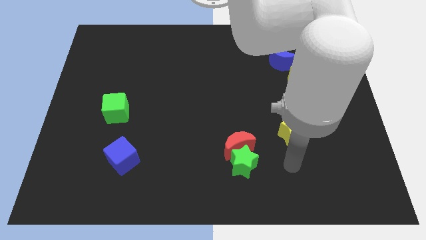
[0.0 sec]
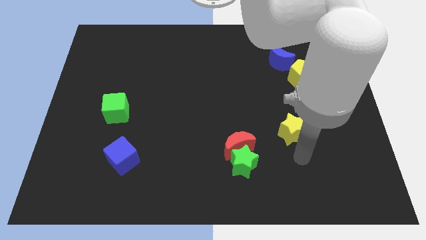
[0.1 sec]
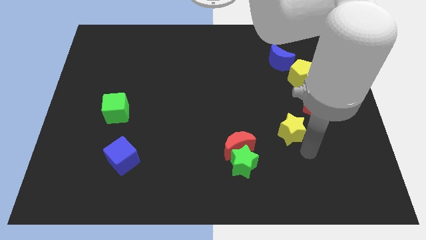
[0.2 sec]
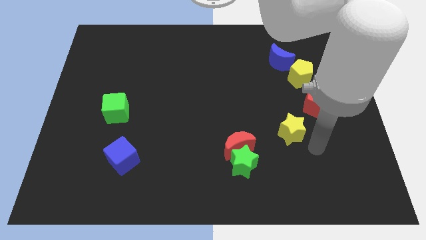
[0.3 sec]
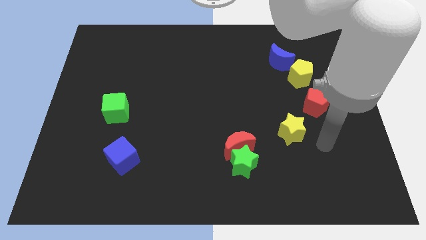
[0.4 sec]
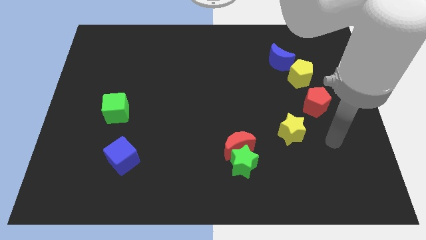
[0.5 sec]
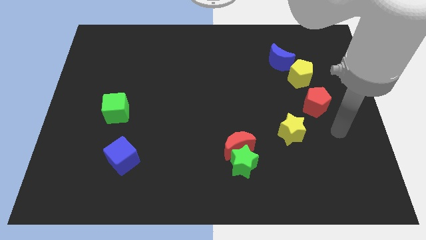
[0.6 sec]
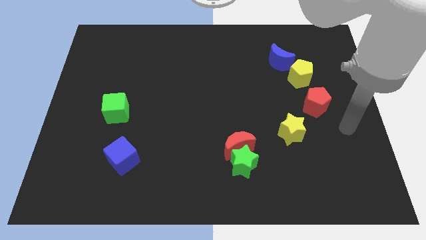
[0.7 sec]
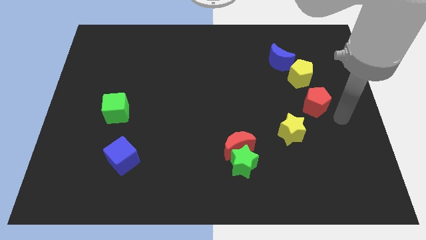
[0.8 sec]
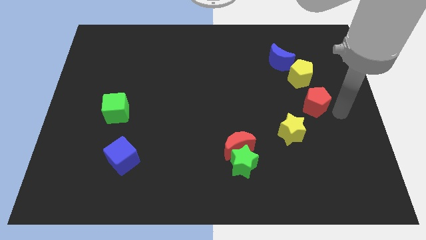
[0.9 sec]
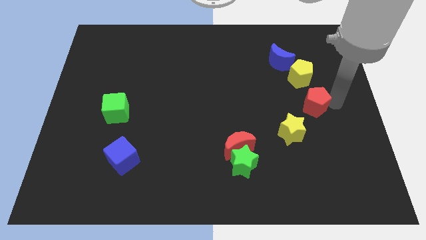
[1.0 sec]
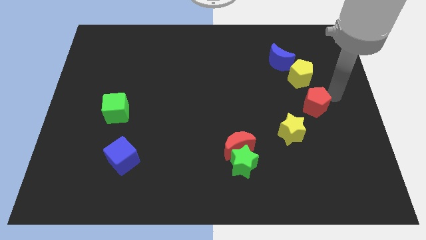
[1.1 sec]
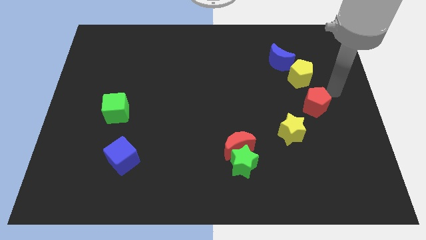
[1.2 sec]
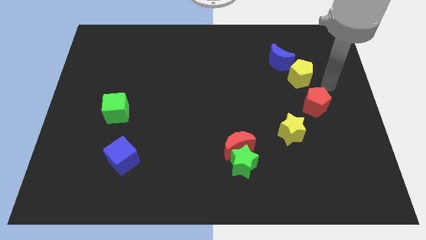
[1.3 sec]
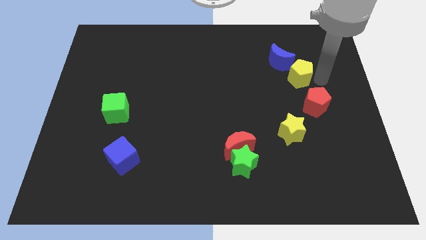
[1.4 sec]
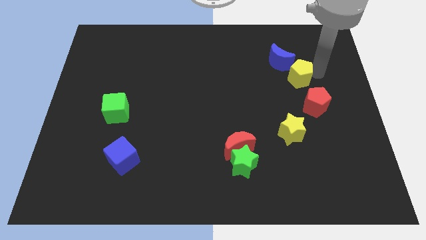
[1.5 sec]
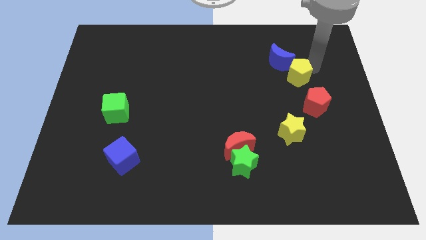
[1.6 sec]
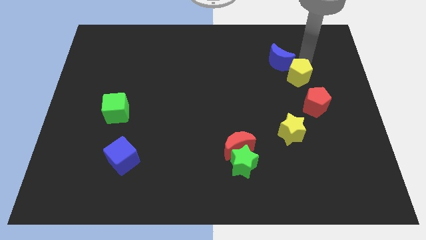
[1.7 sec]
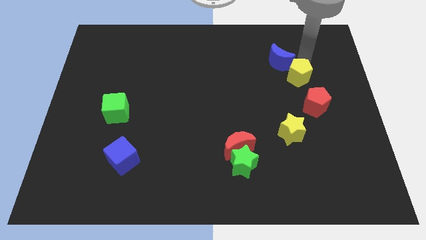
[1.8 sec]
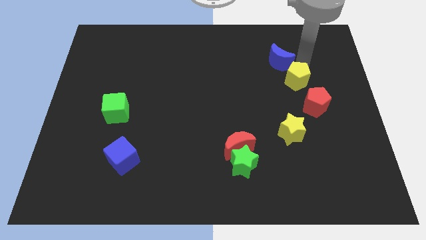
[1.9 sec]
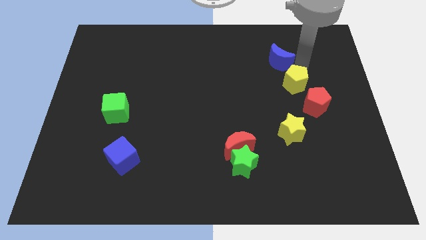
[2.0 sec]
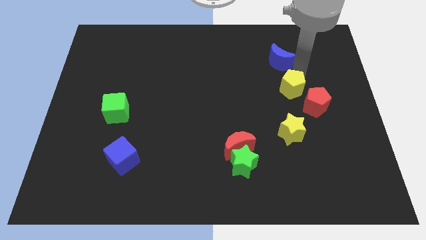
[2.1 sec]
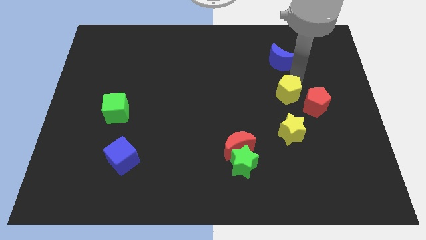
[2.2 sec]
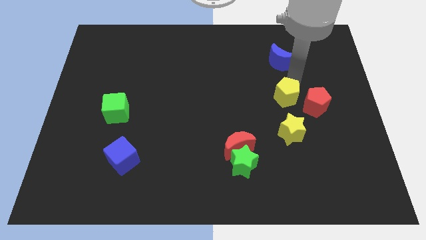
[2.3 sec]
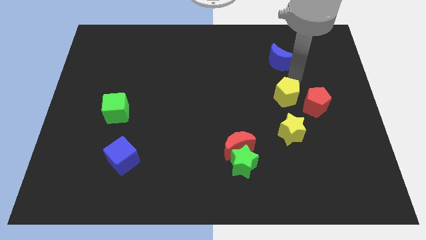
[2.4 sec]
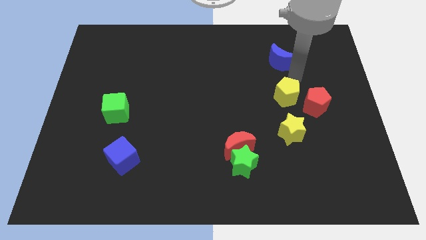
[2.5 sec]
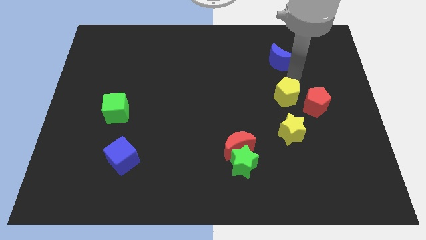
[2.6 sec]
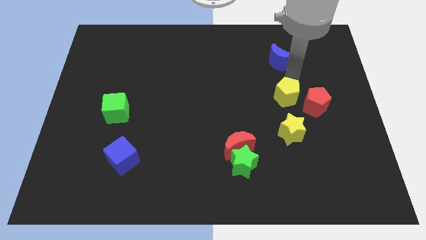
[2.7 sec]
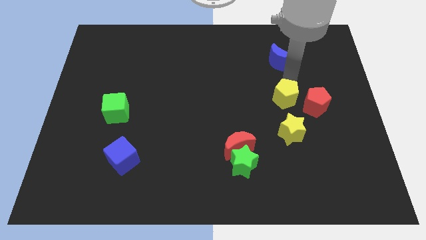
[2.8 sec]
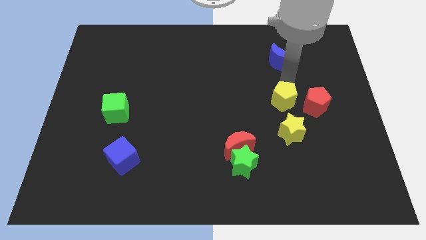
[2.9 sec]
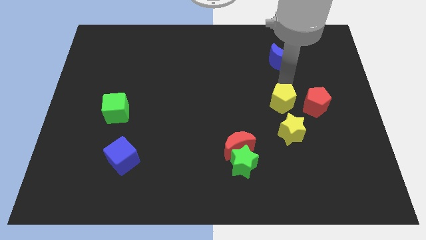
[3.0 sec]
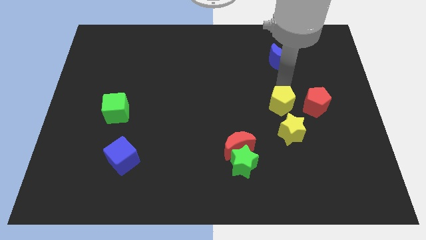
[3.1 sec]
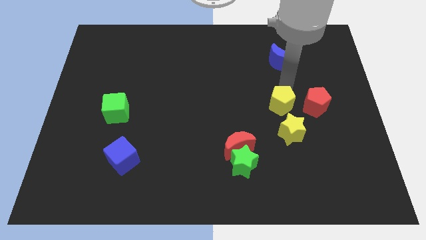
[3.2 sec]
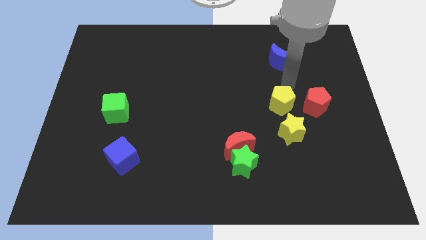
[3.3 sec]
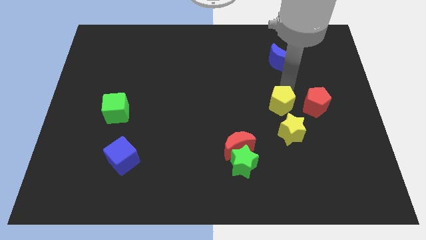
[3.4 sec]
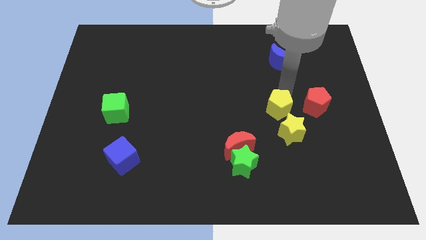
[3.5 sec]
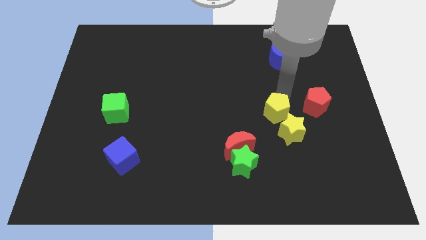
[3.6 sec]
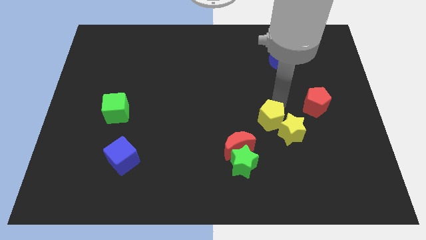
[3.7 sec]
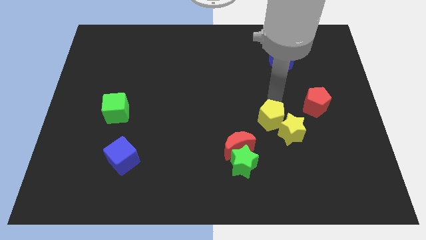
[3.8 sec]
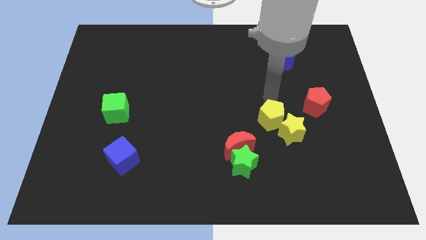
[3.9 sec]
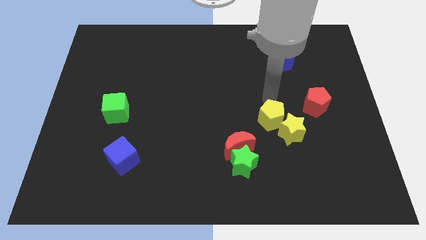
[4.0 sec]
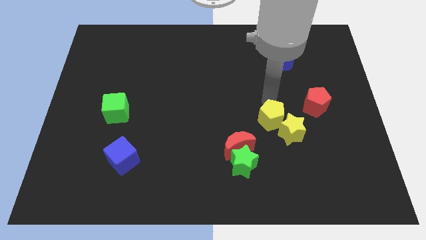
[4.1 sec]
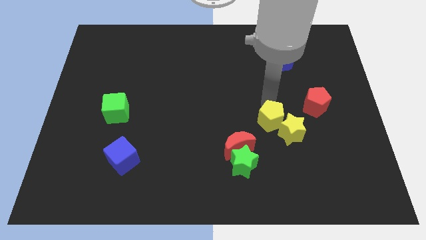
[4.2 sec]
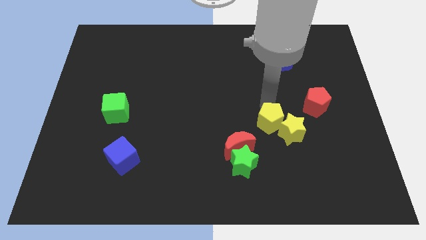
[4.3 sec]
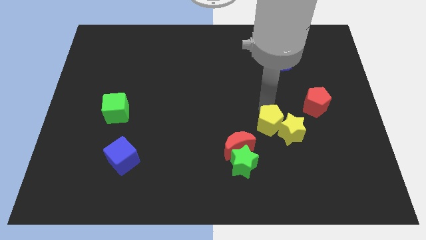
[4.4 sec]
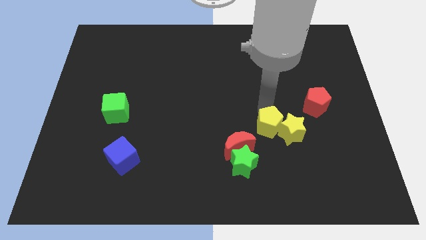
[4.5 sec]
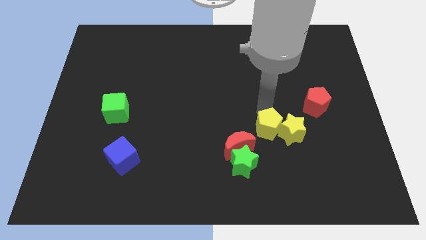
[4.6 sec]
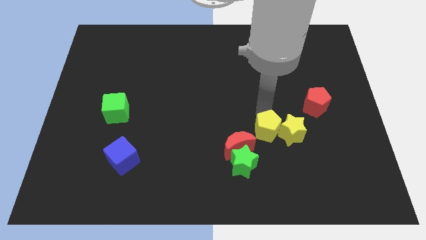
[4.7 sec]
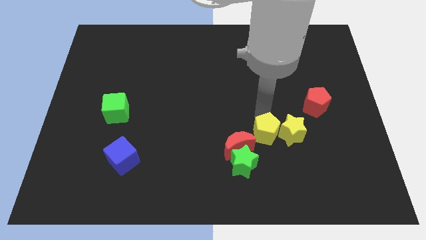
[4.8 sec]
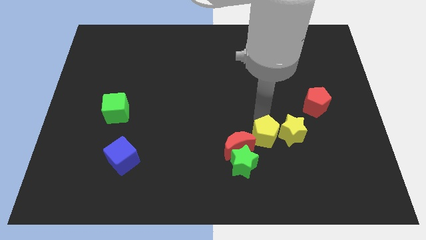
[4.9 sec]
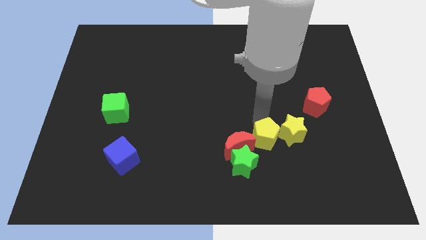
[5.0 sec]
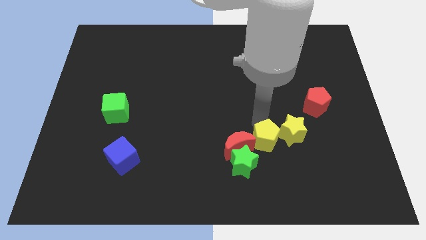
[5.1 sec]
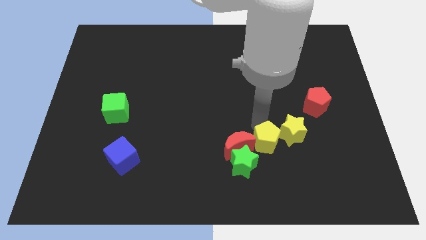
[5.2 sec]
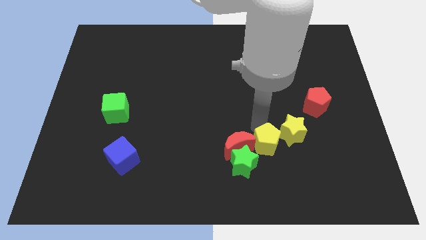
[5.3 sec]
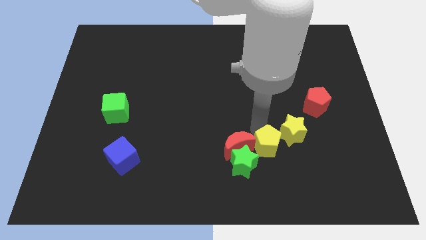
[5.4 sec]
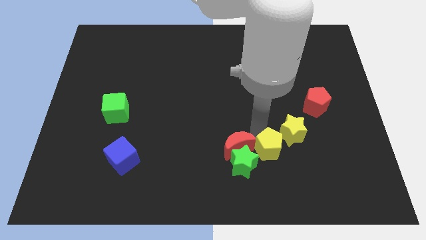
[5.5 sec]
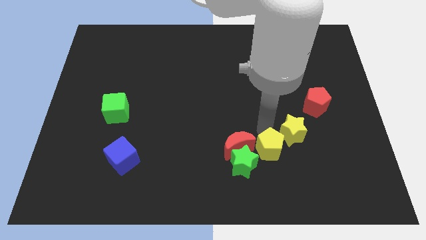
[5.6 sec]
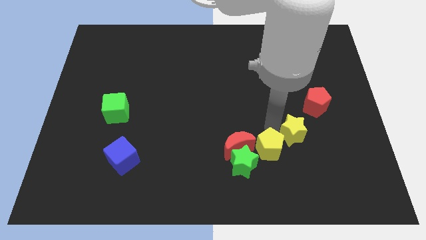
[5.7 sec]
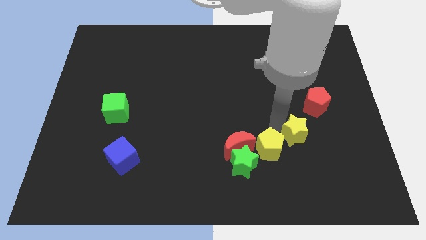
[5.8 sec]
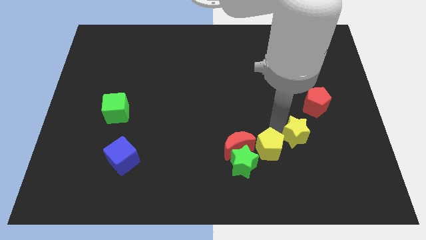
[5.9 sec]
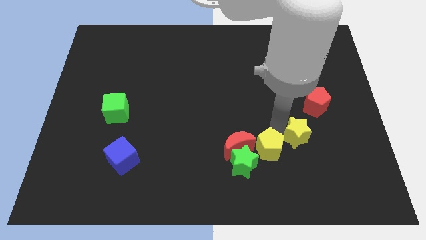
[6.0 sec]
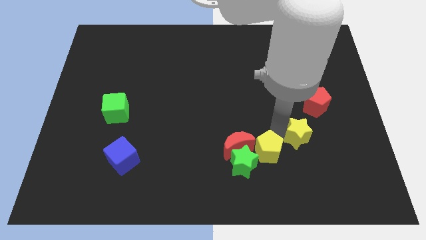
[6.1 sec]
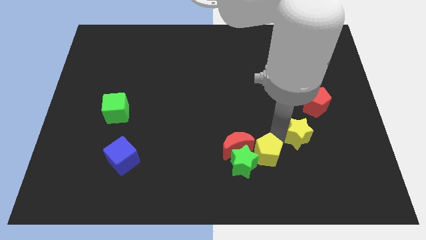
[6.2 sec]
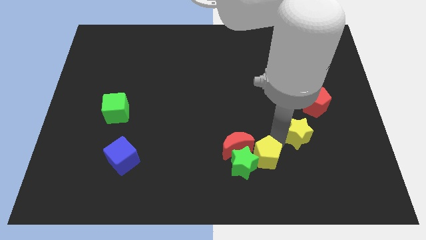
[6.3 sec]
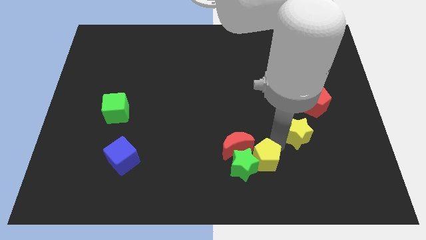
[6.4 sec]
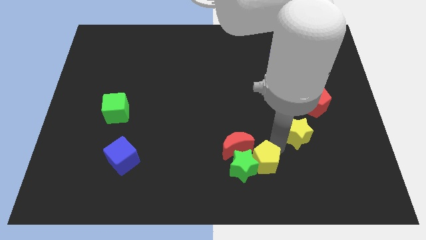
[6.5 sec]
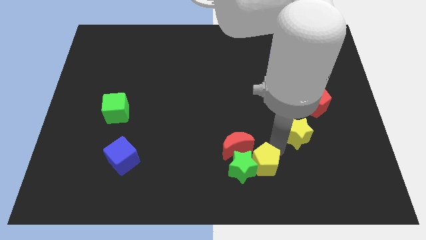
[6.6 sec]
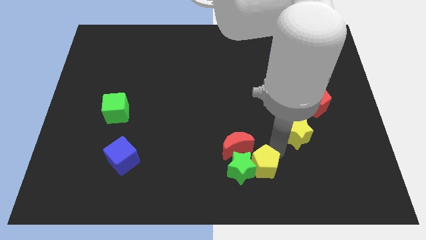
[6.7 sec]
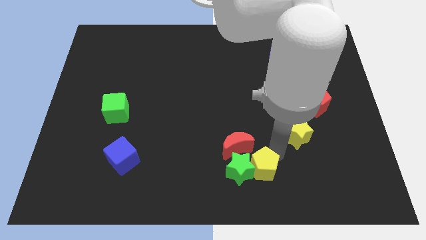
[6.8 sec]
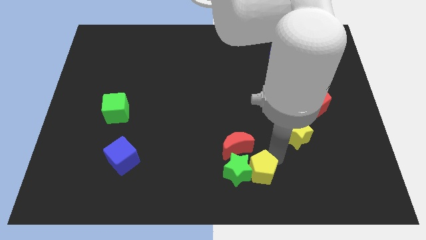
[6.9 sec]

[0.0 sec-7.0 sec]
move the yellow pentagon to the bottom side
